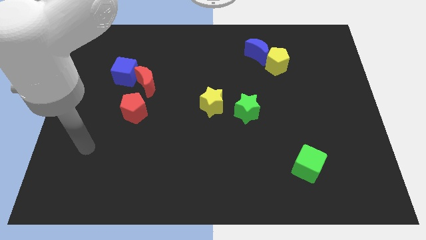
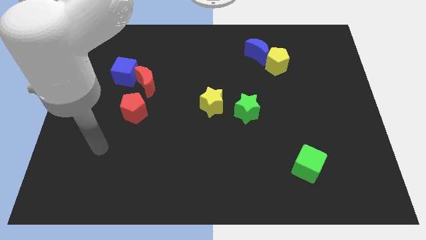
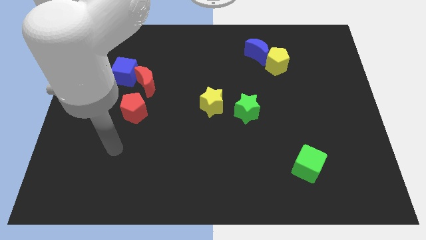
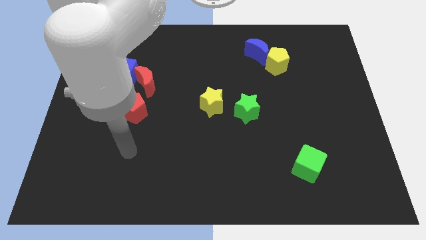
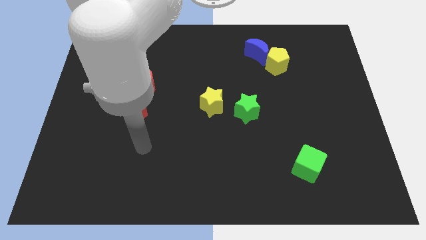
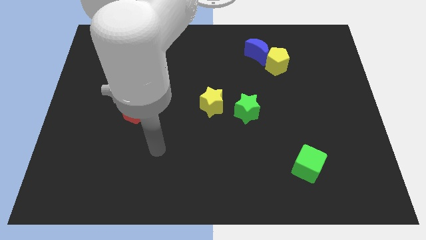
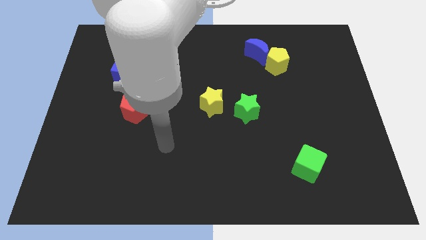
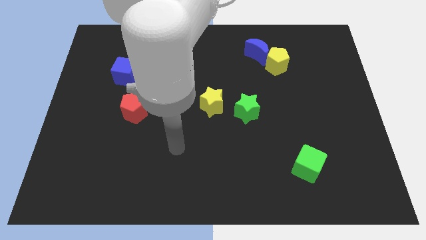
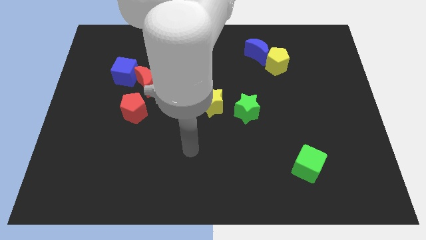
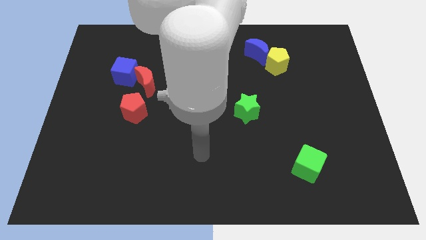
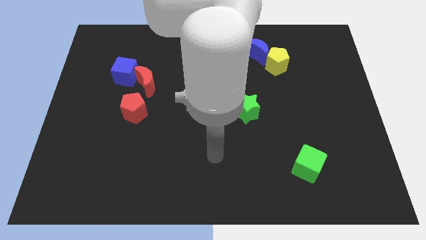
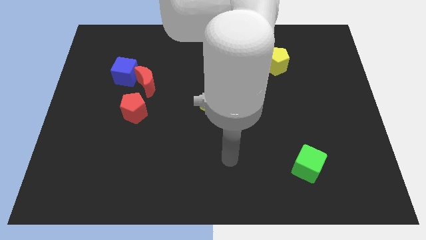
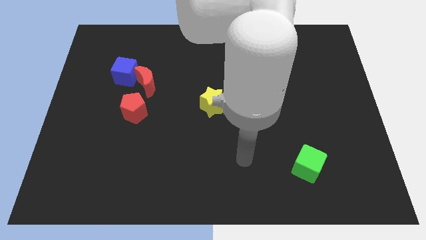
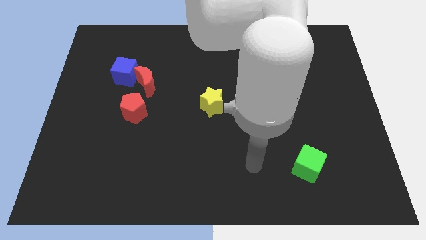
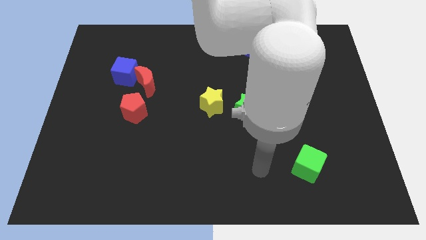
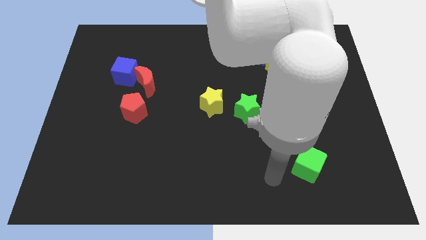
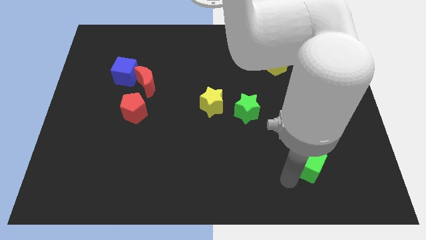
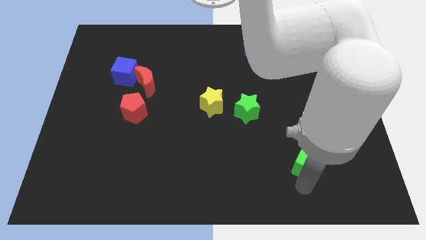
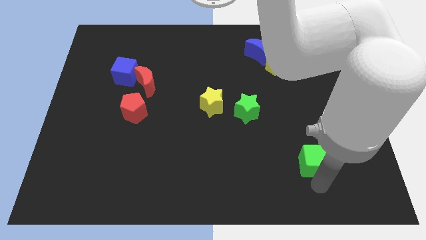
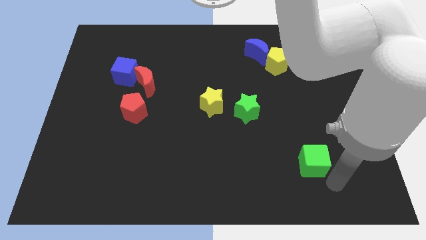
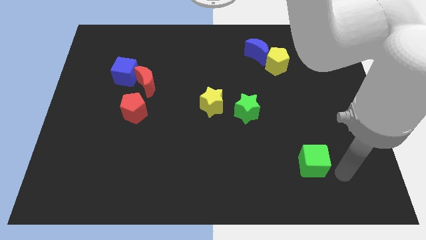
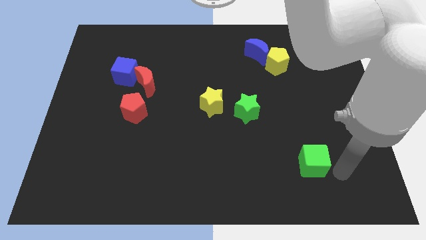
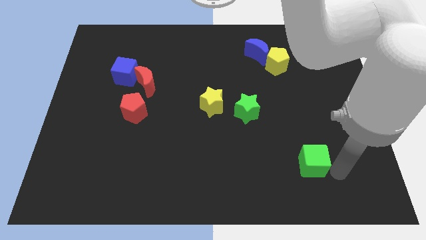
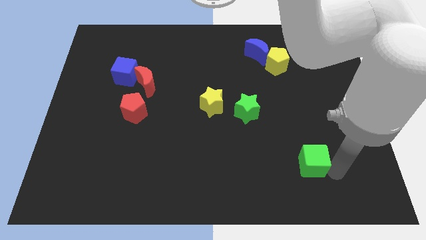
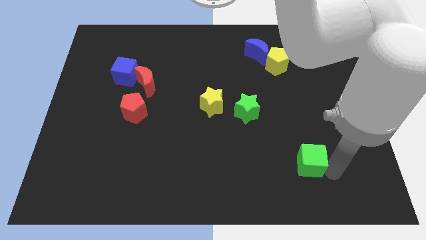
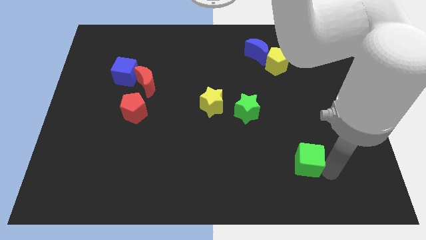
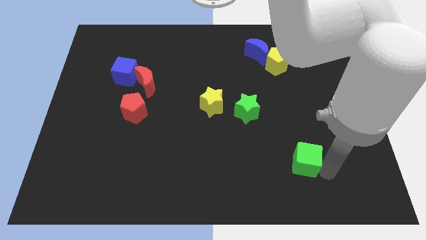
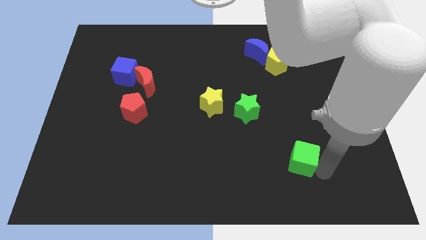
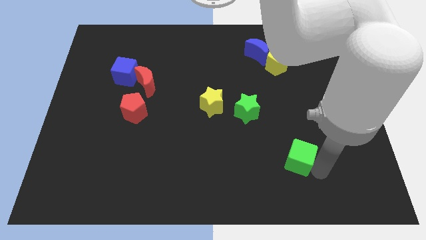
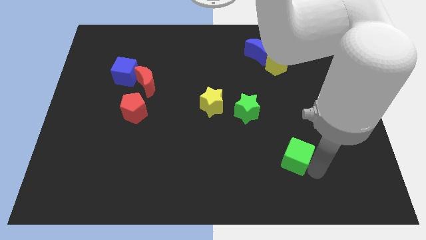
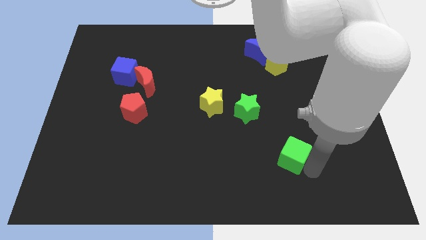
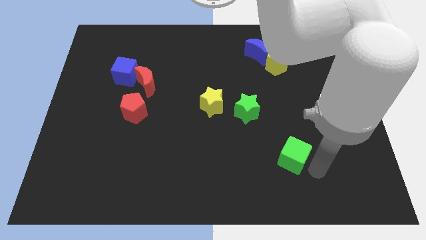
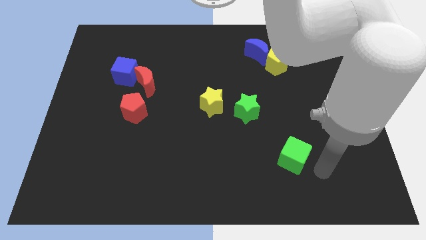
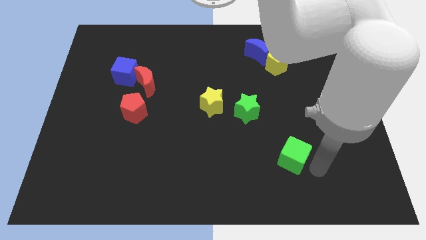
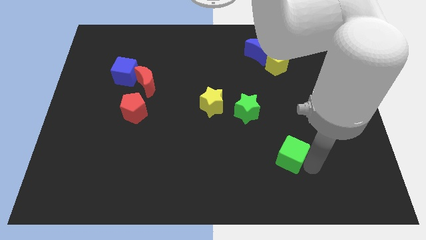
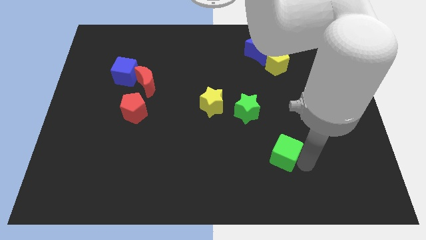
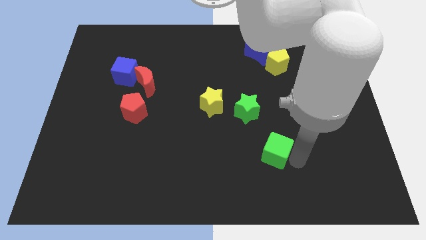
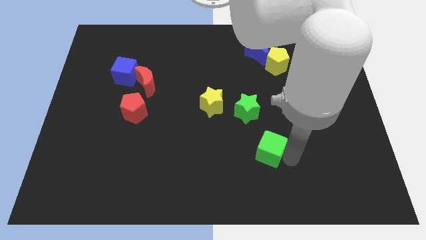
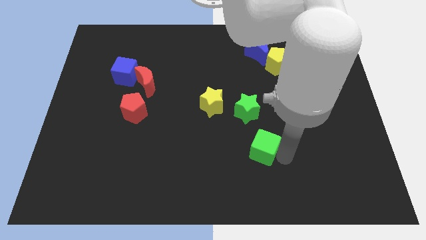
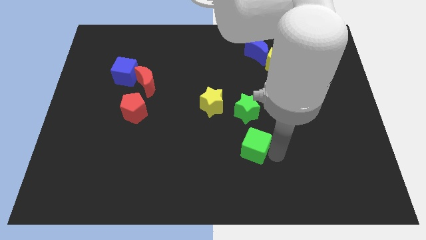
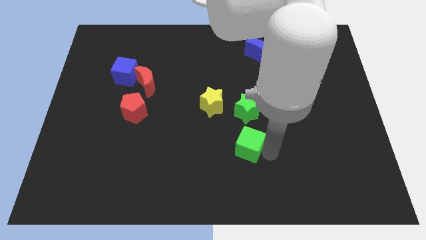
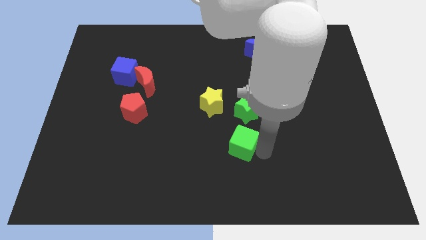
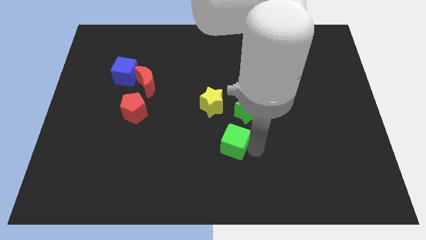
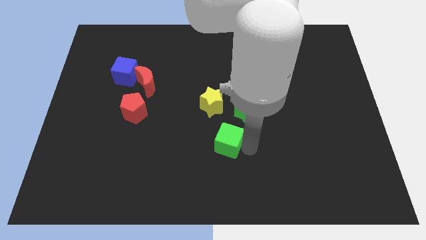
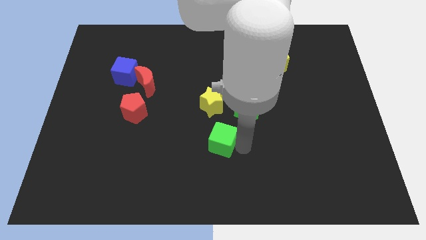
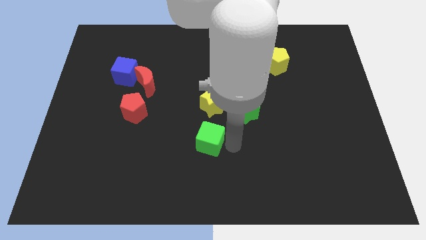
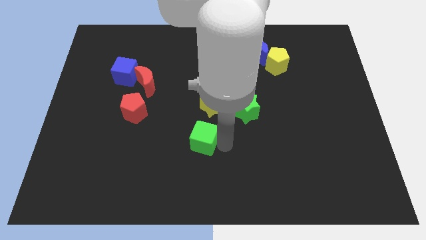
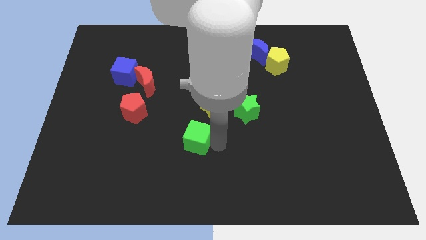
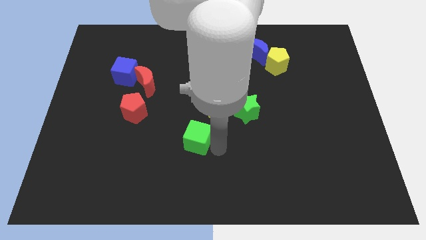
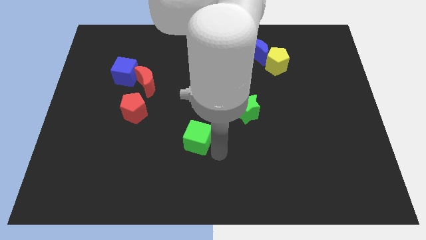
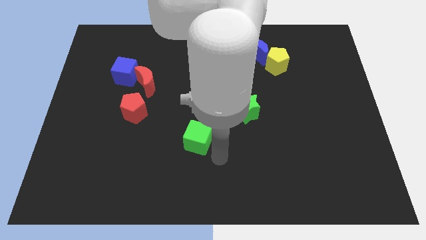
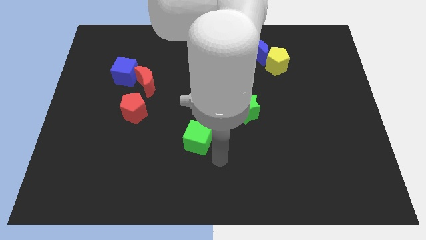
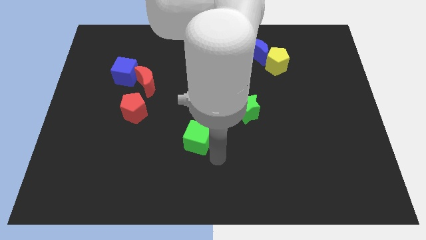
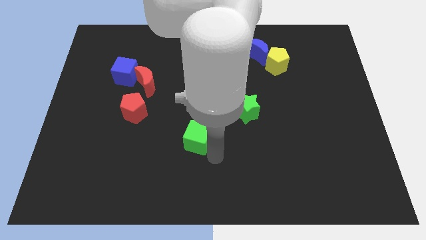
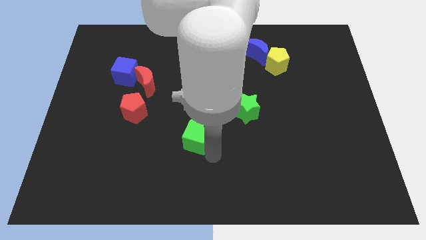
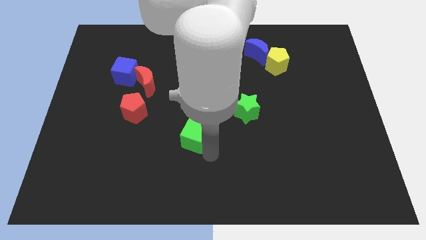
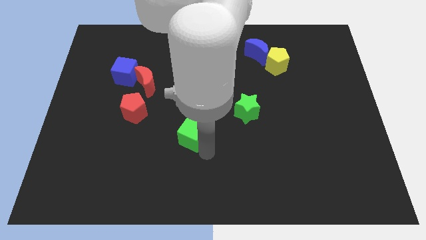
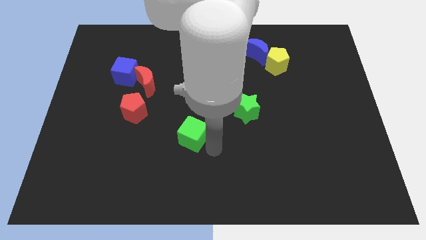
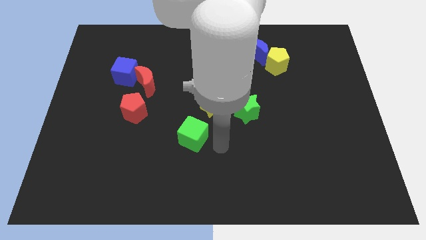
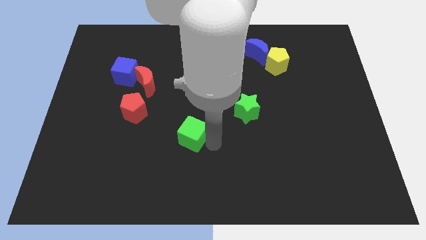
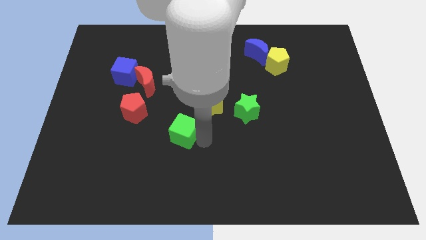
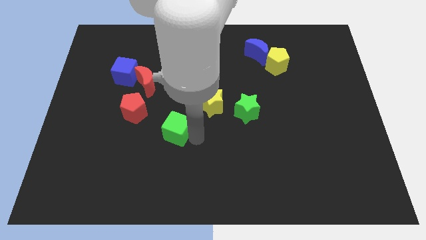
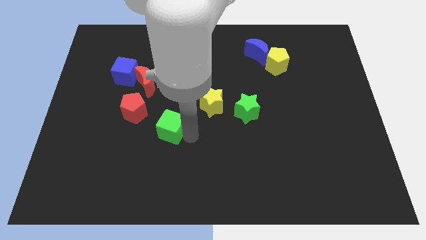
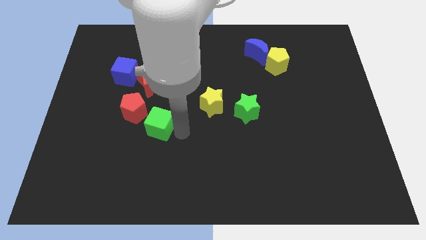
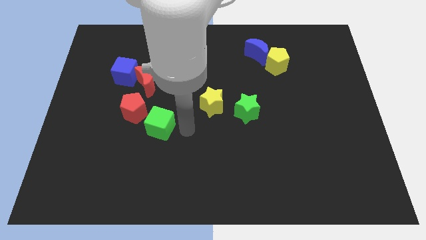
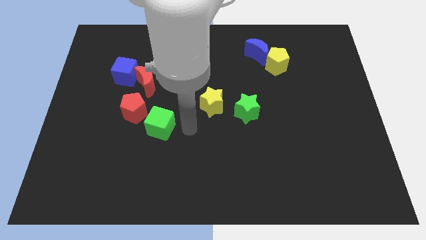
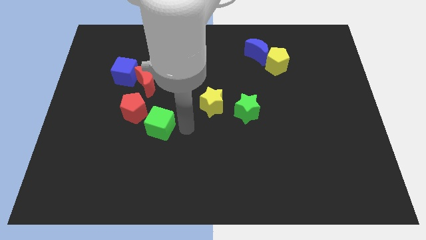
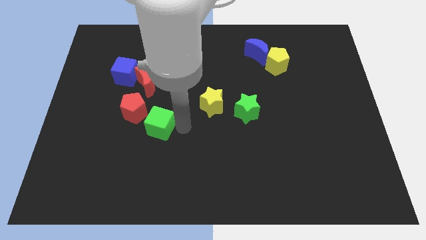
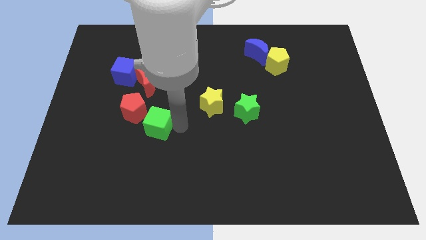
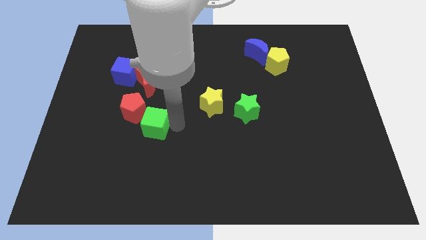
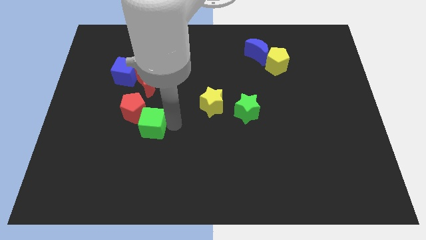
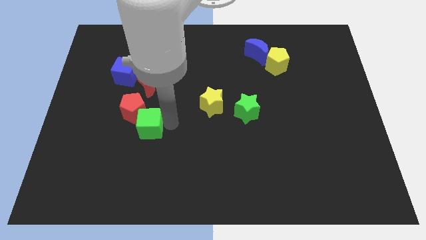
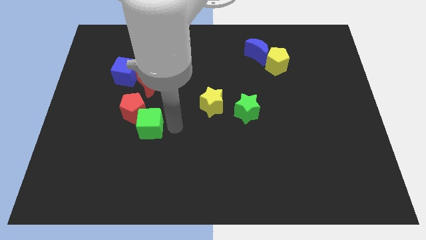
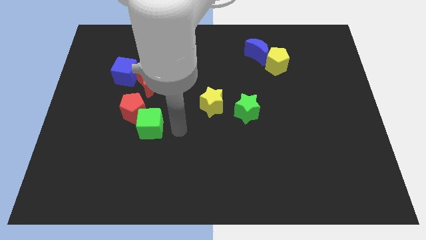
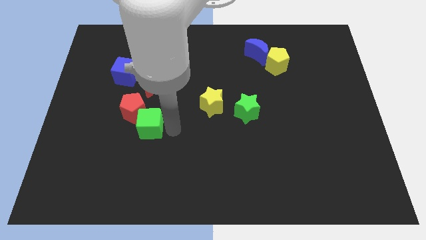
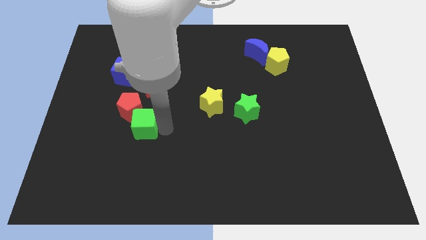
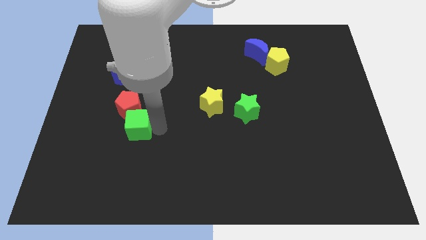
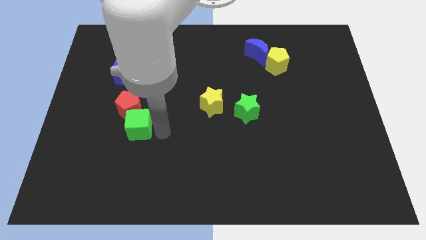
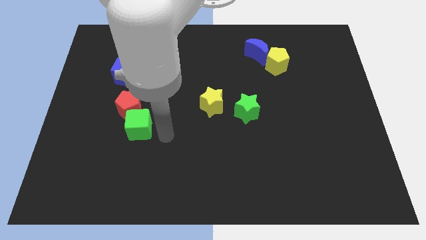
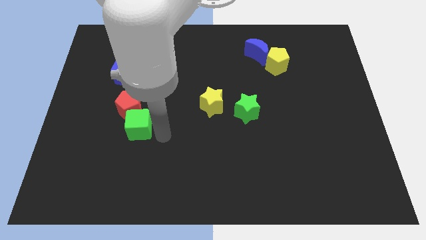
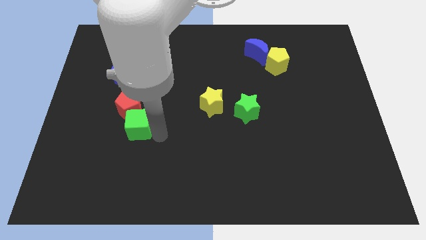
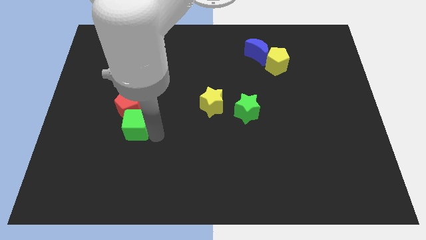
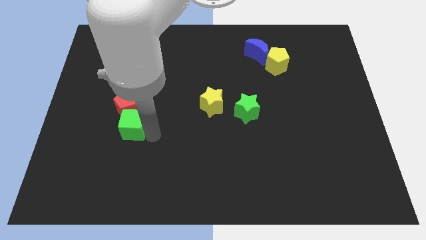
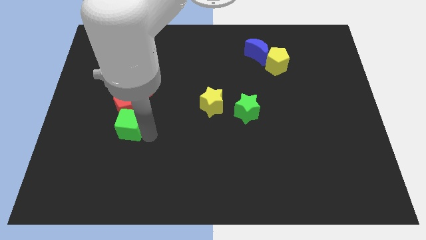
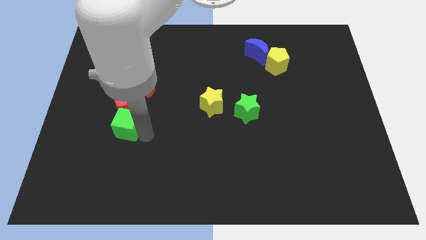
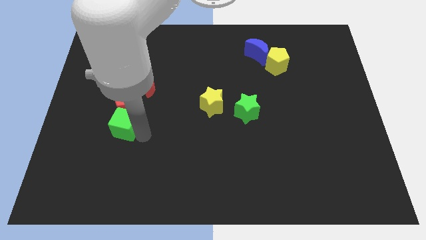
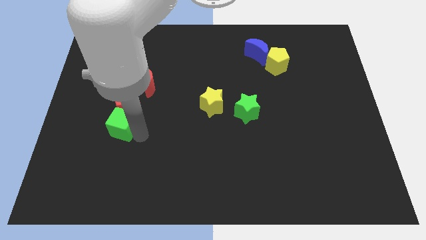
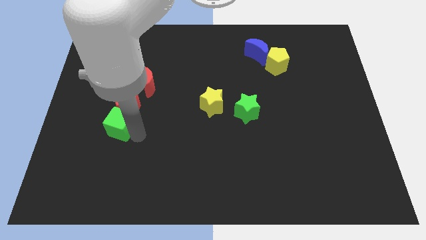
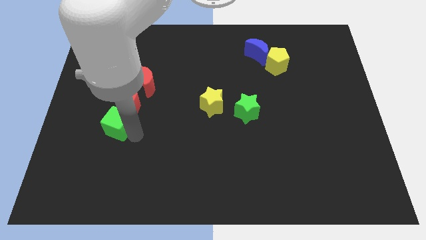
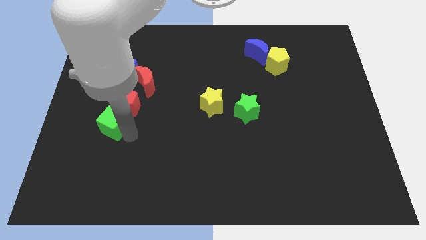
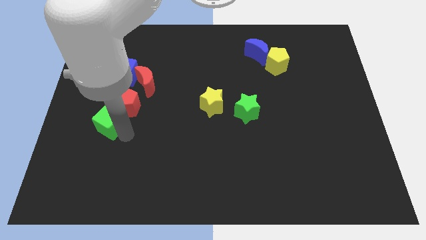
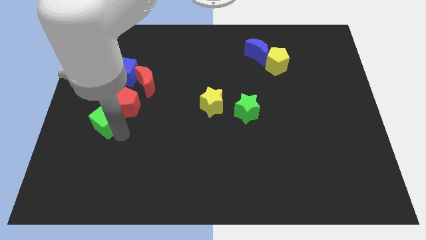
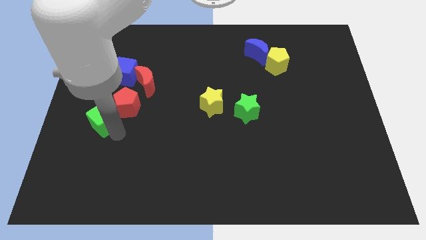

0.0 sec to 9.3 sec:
push the green cube left of the red pentagon
